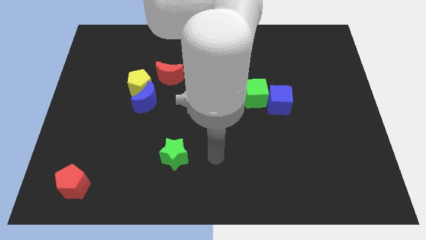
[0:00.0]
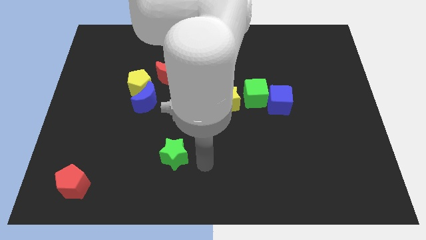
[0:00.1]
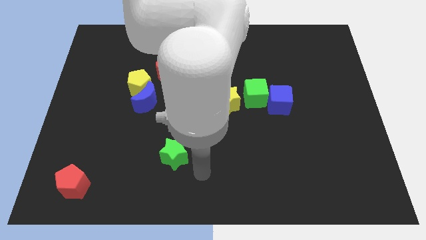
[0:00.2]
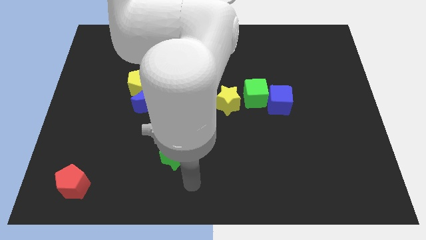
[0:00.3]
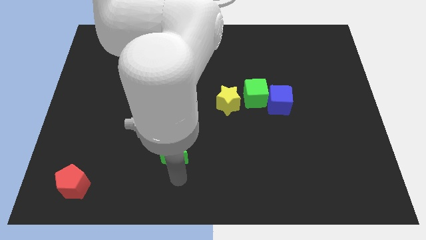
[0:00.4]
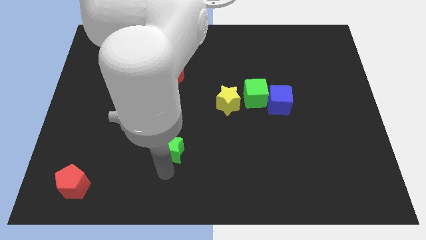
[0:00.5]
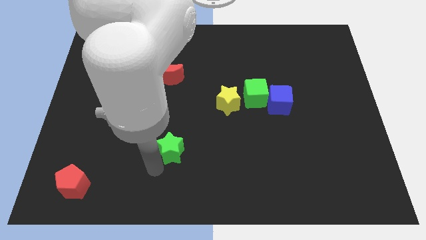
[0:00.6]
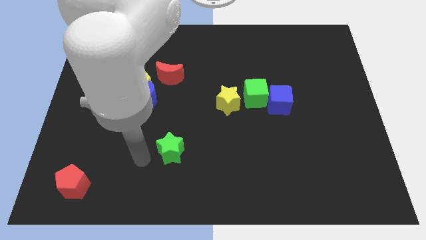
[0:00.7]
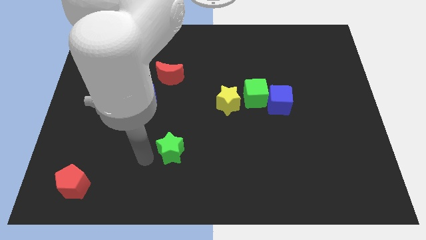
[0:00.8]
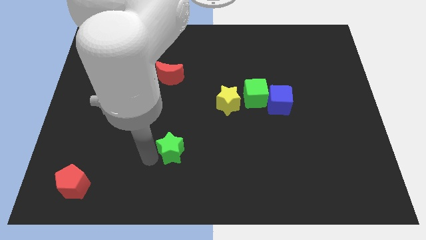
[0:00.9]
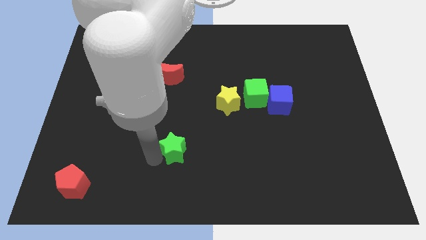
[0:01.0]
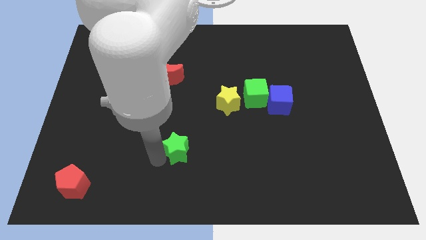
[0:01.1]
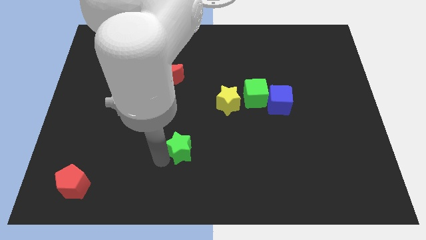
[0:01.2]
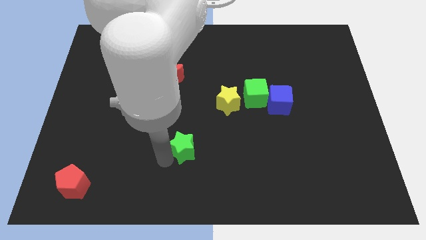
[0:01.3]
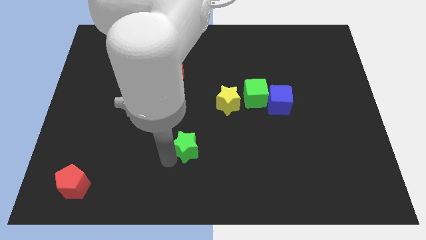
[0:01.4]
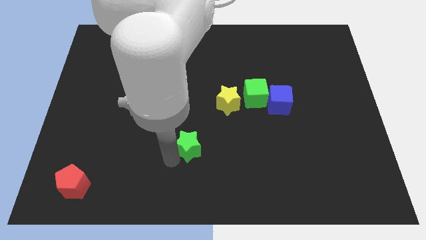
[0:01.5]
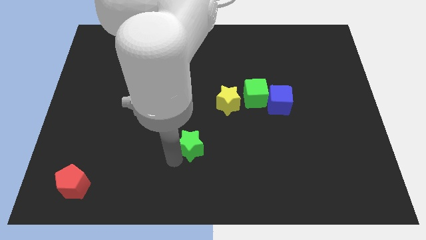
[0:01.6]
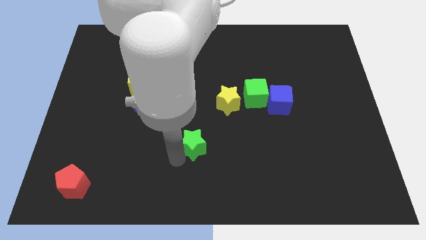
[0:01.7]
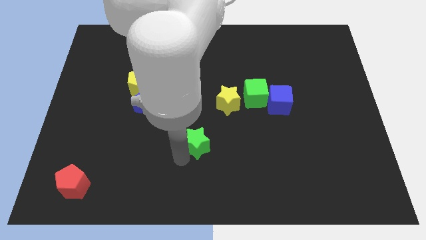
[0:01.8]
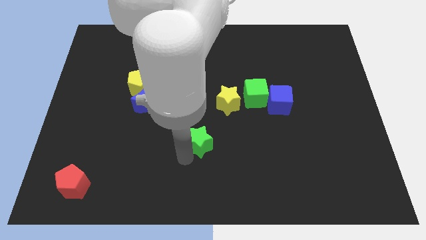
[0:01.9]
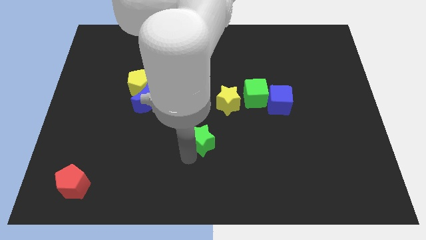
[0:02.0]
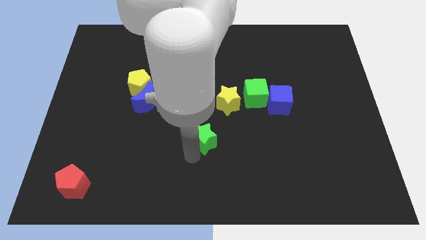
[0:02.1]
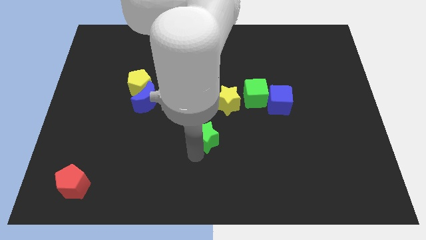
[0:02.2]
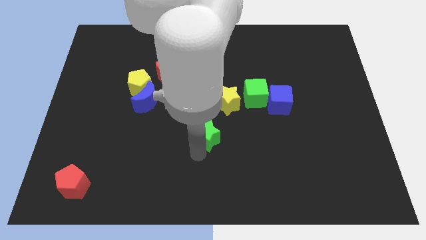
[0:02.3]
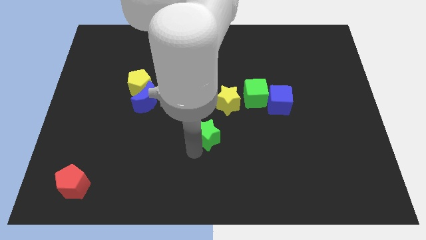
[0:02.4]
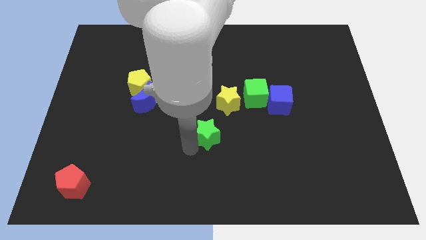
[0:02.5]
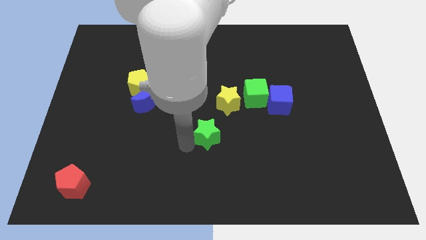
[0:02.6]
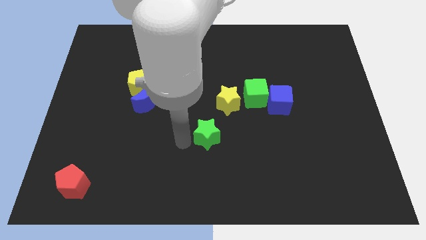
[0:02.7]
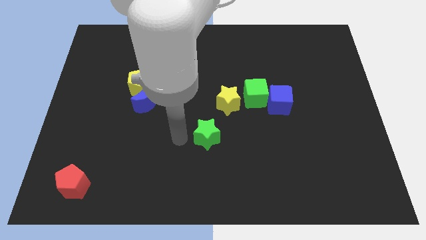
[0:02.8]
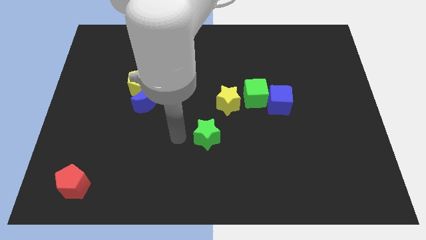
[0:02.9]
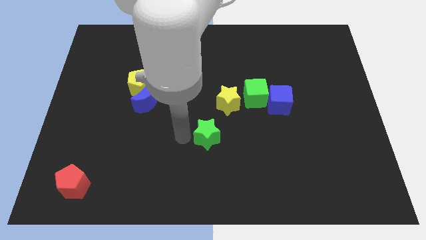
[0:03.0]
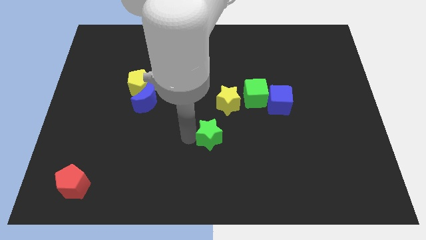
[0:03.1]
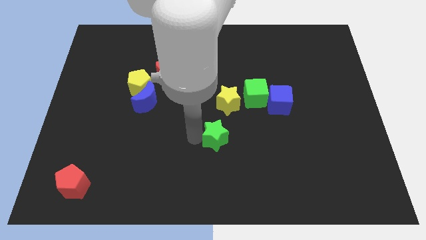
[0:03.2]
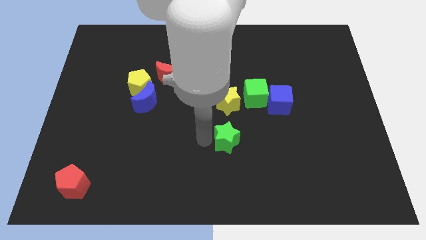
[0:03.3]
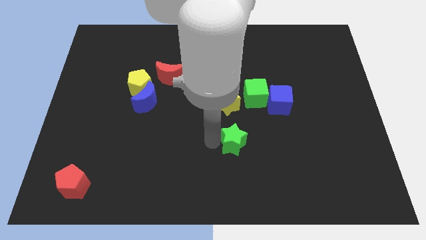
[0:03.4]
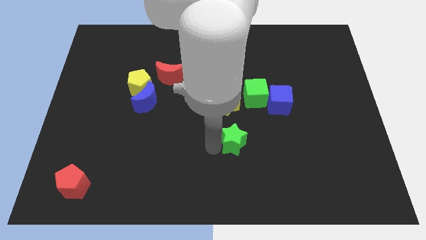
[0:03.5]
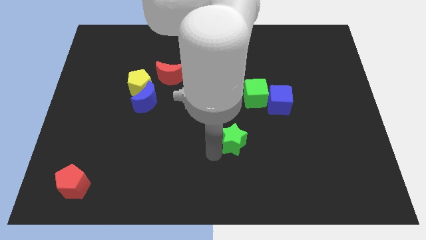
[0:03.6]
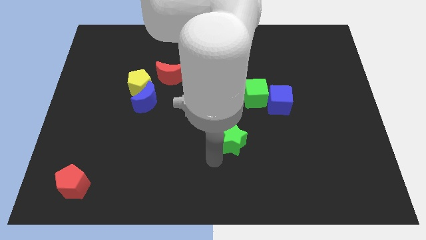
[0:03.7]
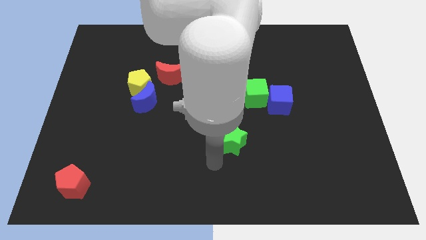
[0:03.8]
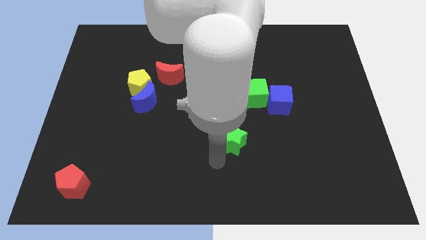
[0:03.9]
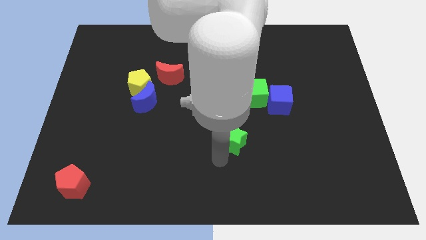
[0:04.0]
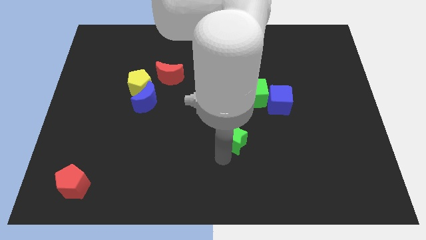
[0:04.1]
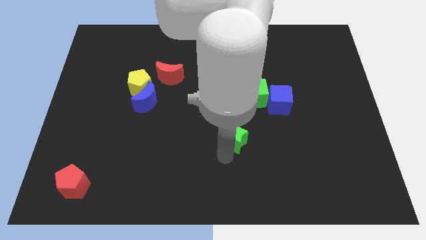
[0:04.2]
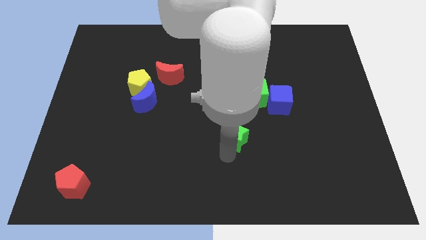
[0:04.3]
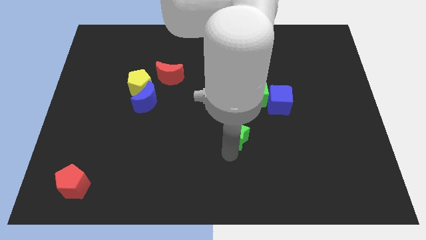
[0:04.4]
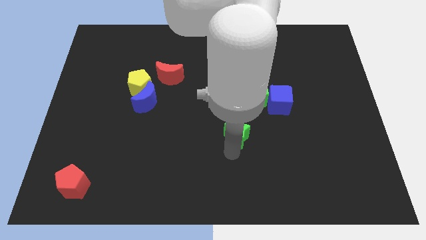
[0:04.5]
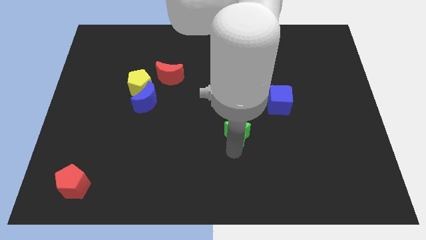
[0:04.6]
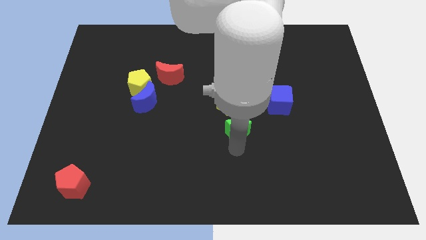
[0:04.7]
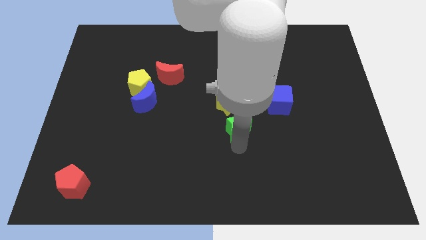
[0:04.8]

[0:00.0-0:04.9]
move the green star to the bottom left side of the blue cube

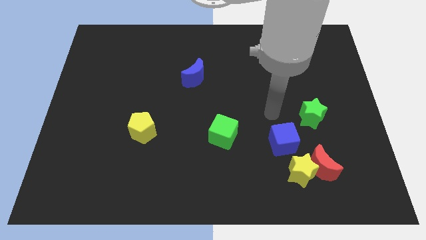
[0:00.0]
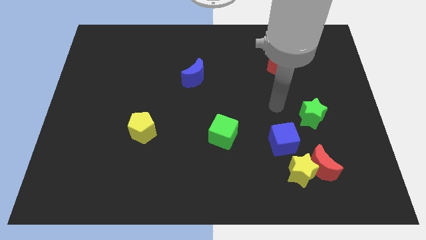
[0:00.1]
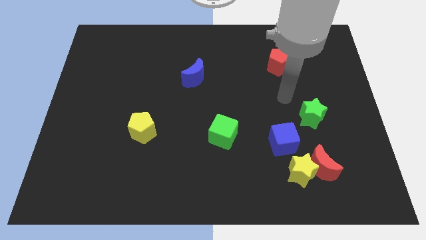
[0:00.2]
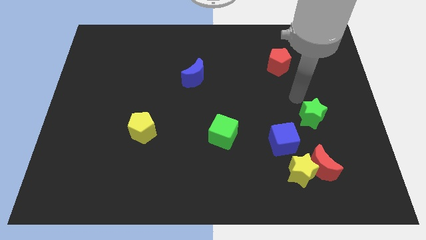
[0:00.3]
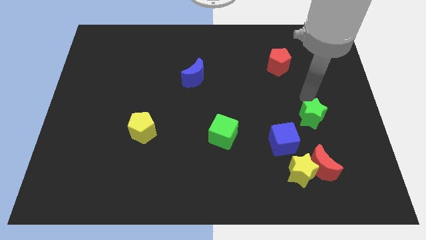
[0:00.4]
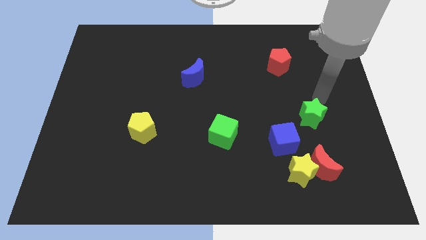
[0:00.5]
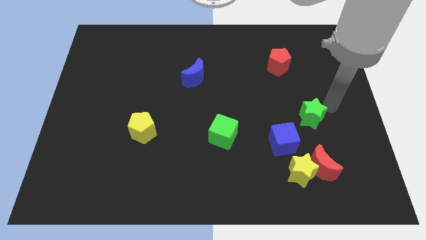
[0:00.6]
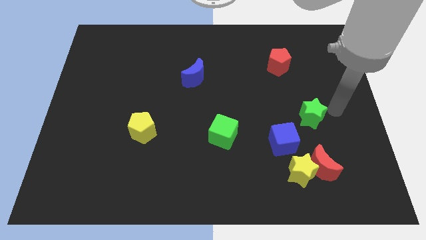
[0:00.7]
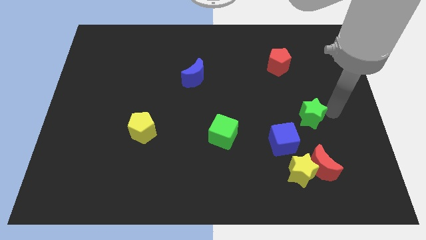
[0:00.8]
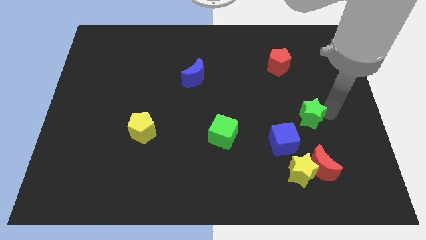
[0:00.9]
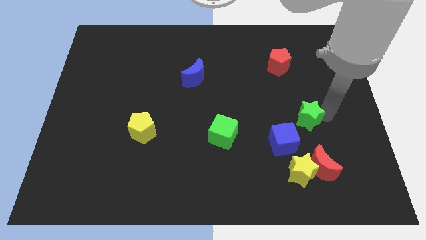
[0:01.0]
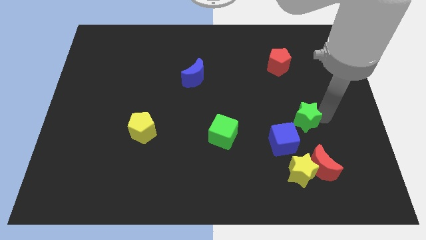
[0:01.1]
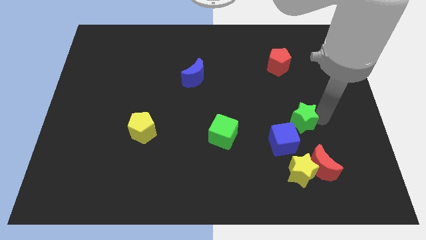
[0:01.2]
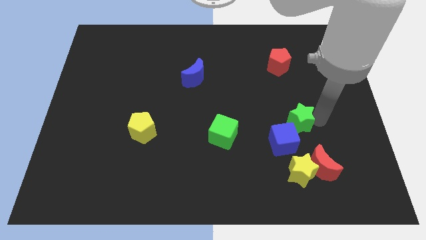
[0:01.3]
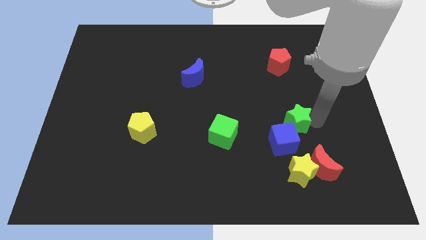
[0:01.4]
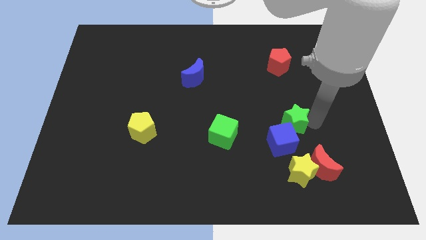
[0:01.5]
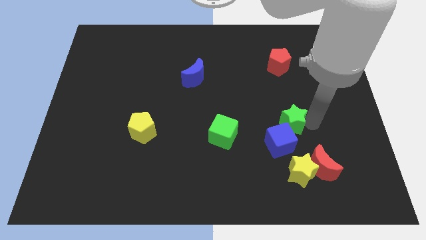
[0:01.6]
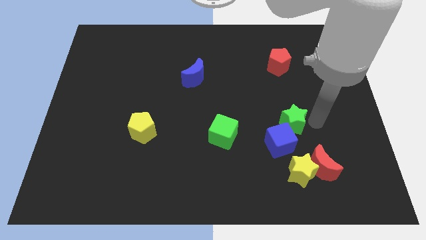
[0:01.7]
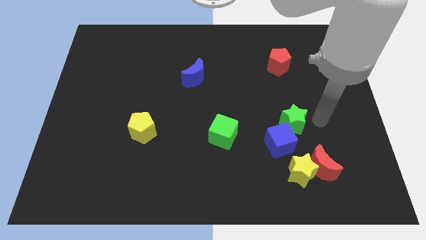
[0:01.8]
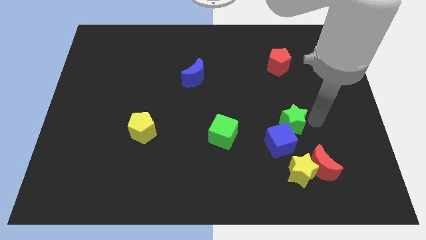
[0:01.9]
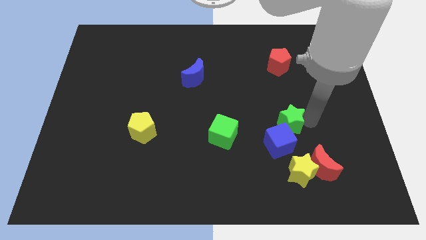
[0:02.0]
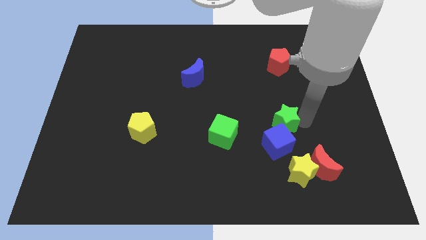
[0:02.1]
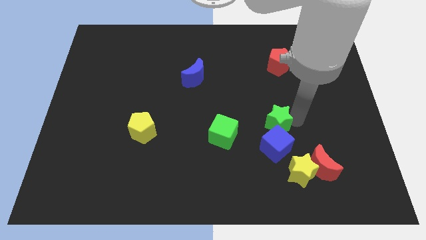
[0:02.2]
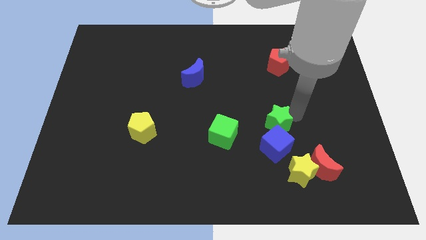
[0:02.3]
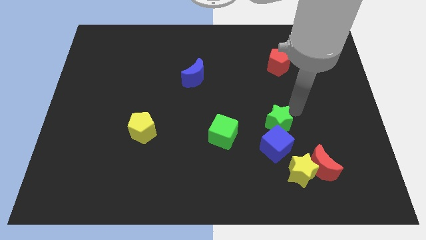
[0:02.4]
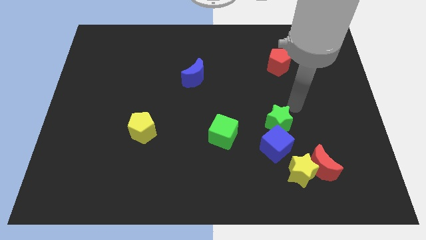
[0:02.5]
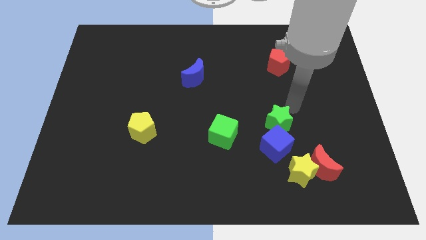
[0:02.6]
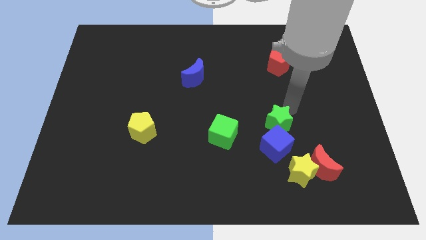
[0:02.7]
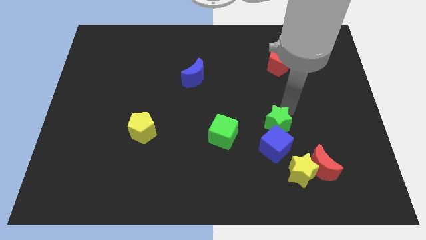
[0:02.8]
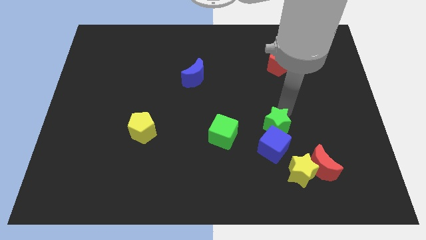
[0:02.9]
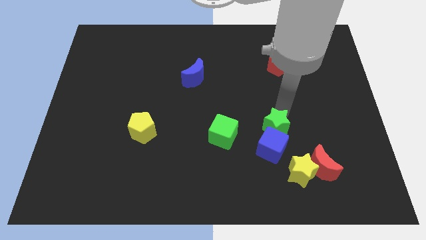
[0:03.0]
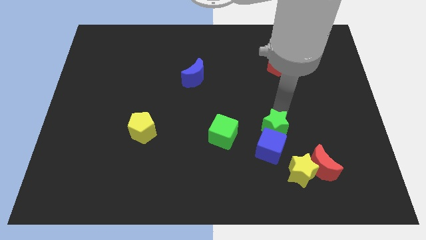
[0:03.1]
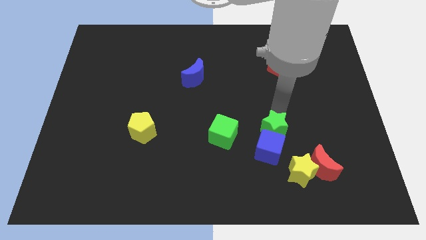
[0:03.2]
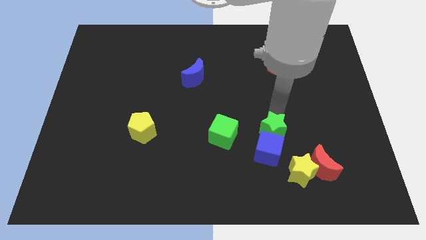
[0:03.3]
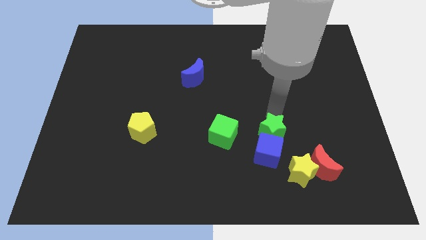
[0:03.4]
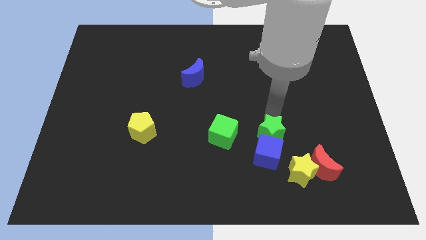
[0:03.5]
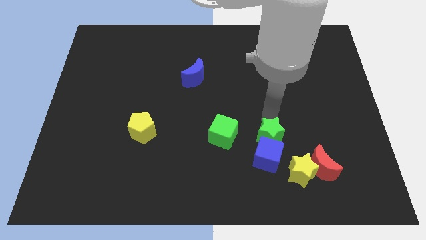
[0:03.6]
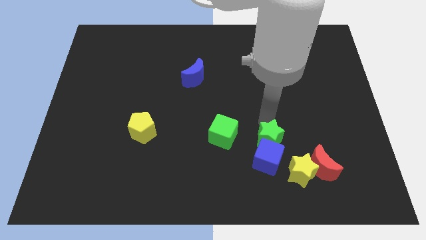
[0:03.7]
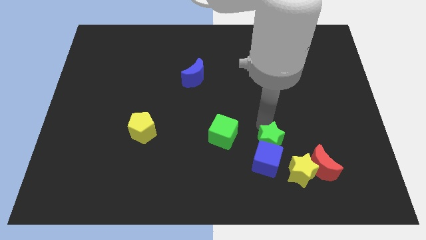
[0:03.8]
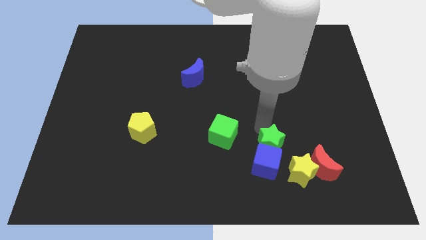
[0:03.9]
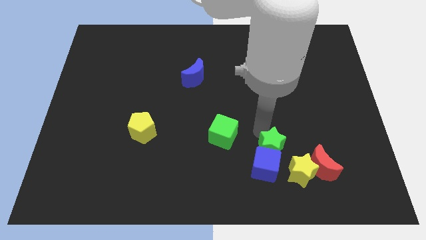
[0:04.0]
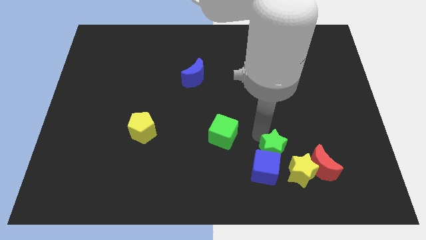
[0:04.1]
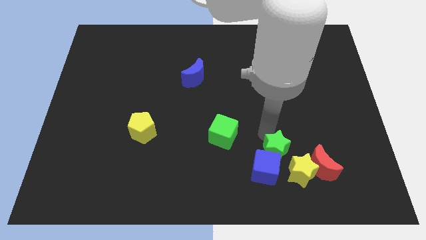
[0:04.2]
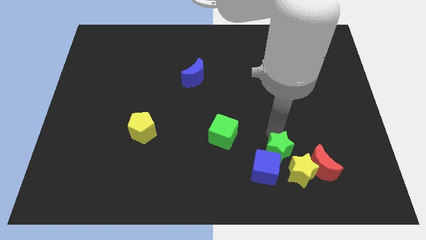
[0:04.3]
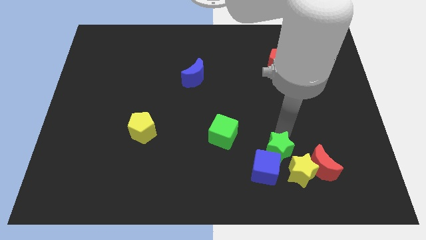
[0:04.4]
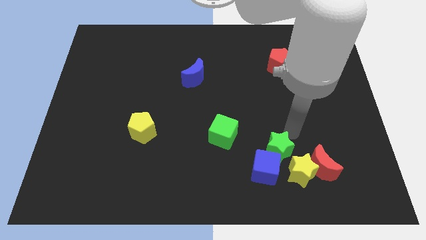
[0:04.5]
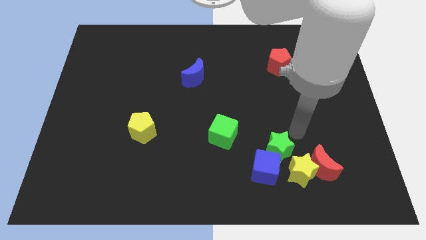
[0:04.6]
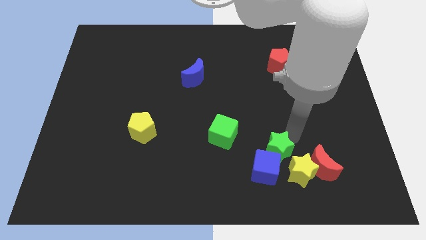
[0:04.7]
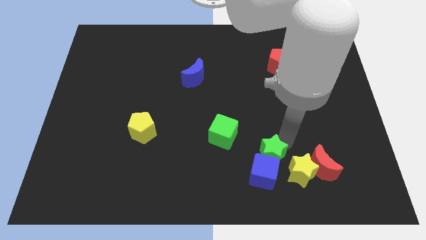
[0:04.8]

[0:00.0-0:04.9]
put the green star just left of the yellow star
